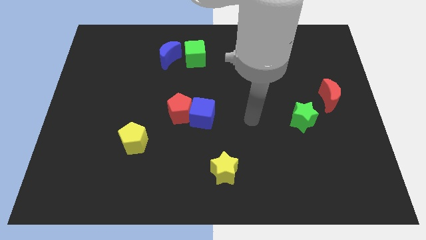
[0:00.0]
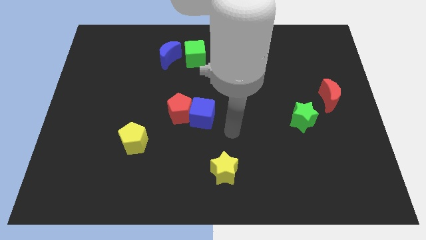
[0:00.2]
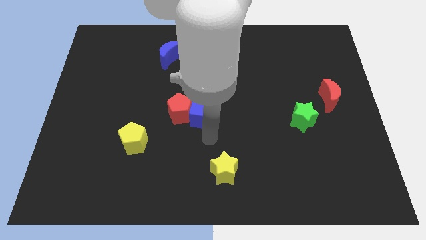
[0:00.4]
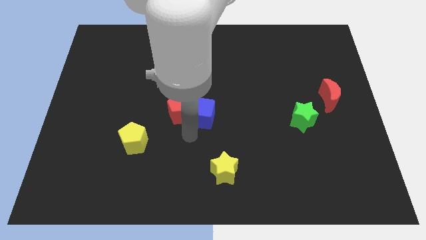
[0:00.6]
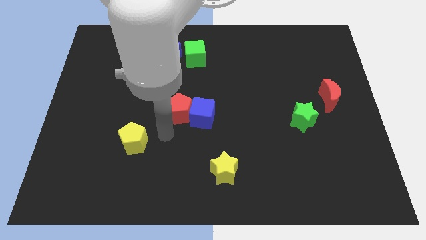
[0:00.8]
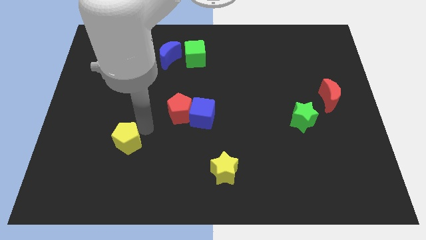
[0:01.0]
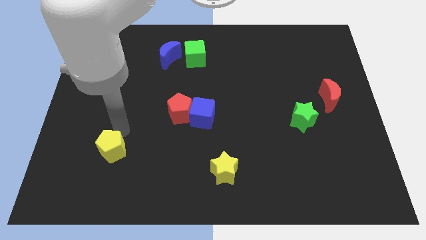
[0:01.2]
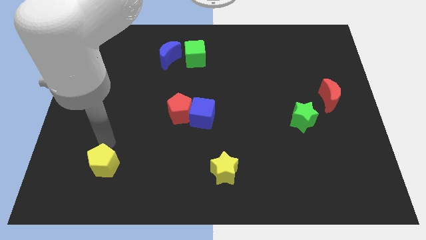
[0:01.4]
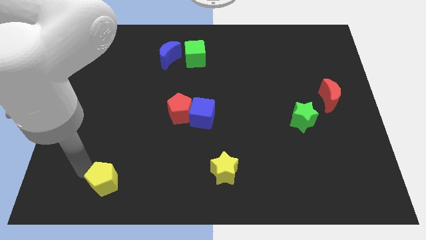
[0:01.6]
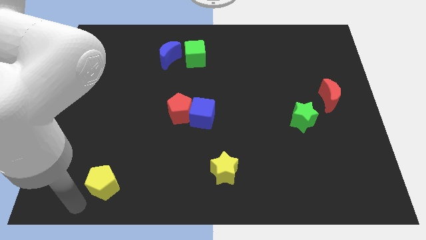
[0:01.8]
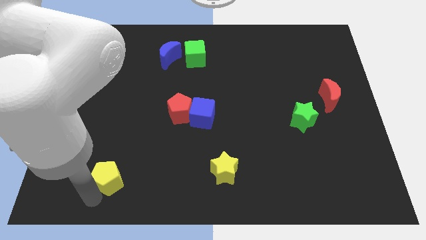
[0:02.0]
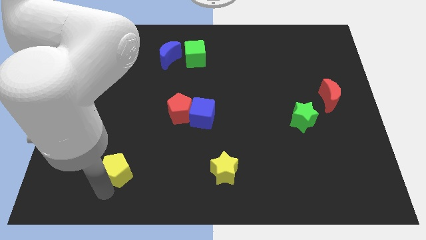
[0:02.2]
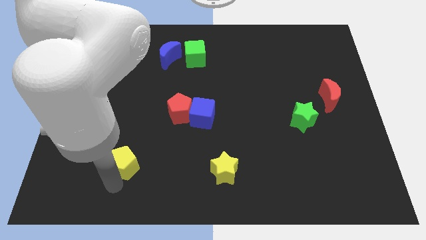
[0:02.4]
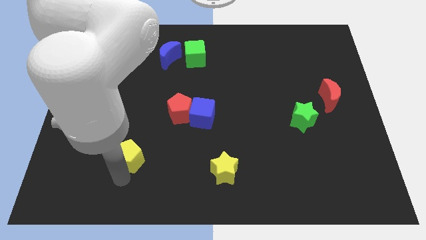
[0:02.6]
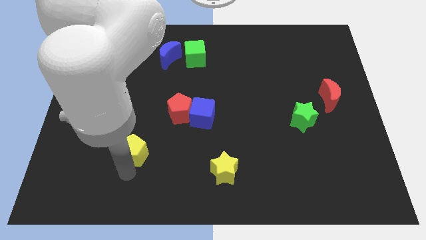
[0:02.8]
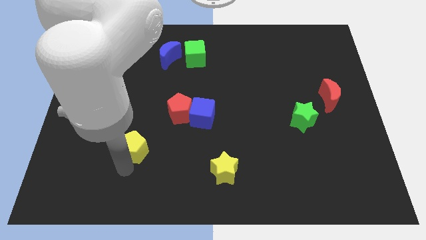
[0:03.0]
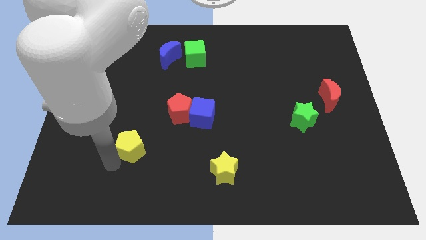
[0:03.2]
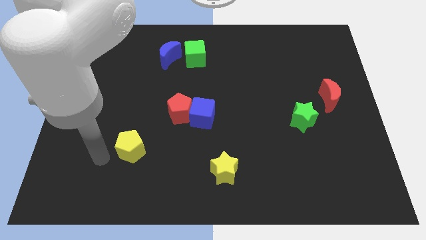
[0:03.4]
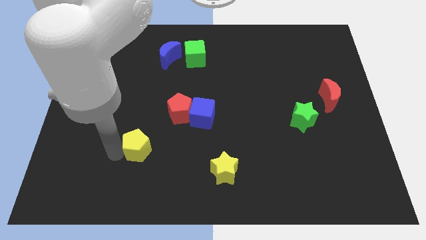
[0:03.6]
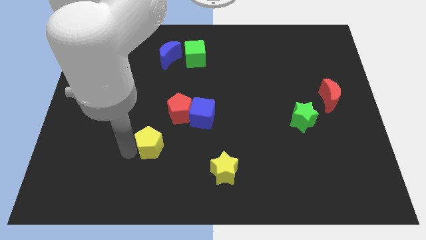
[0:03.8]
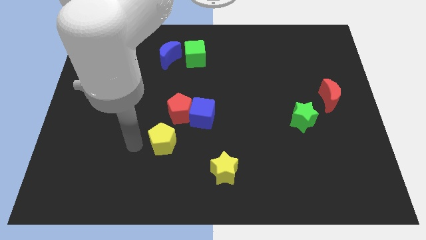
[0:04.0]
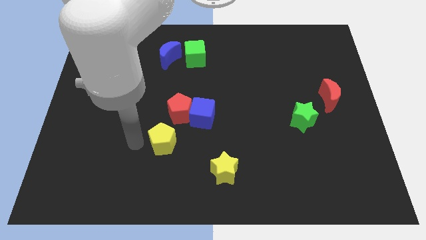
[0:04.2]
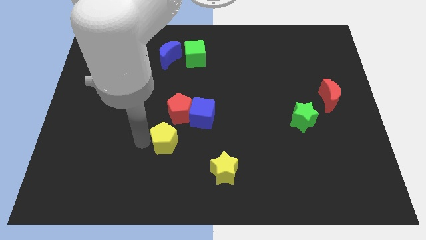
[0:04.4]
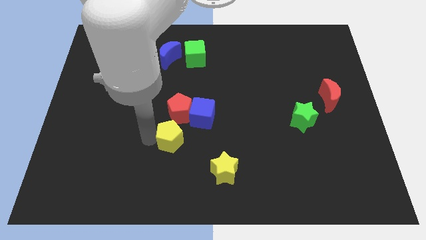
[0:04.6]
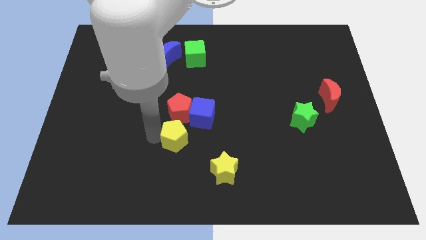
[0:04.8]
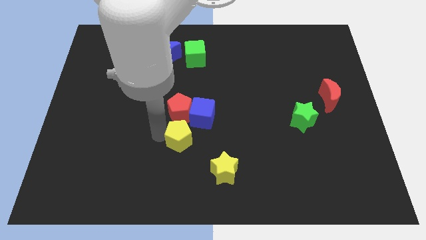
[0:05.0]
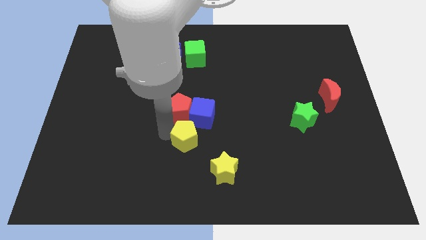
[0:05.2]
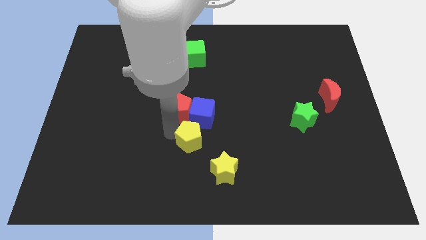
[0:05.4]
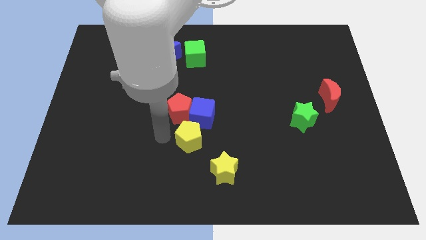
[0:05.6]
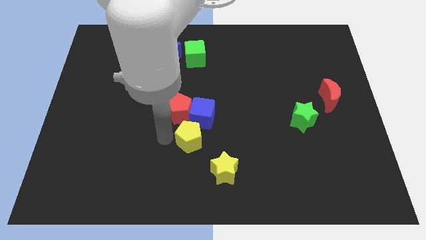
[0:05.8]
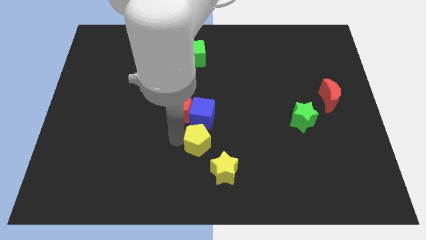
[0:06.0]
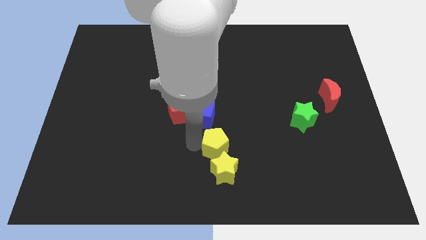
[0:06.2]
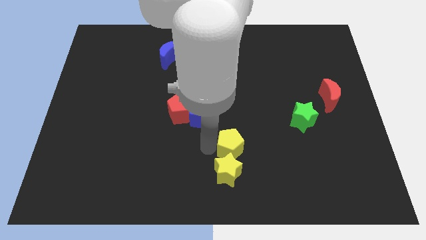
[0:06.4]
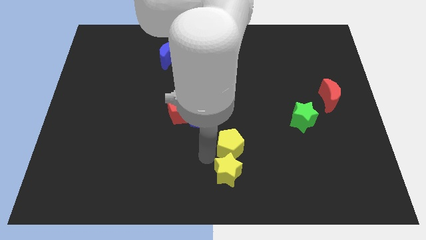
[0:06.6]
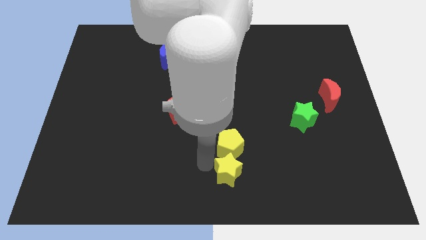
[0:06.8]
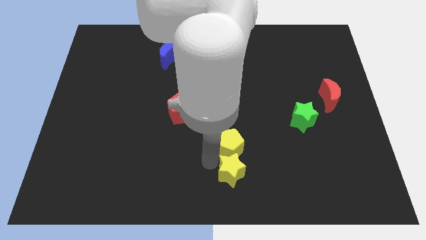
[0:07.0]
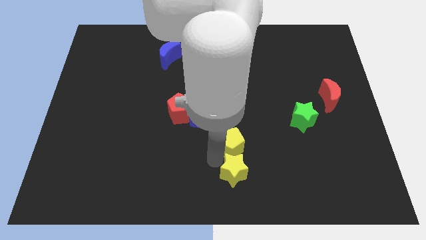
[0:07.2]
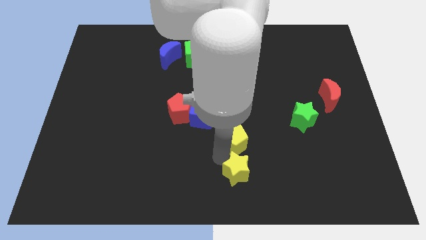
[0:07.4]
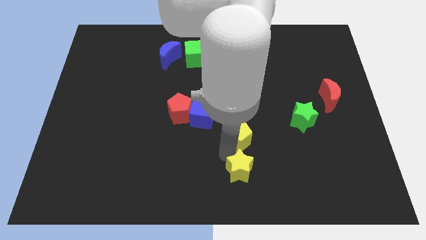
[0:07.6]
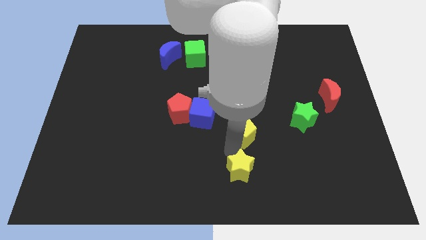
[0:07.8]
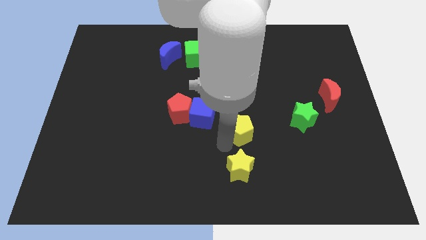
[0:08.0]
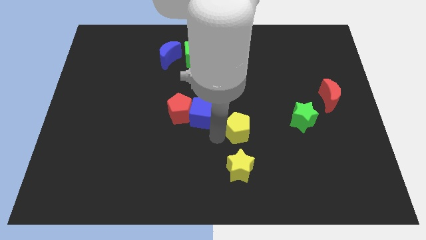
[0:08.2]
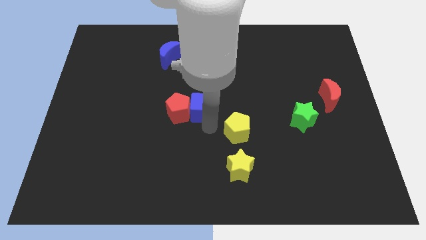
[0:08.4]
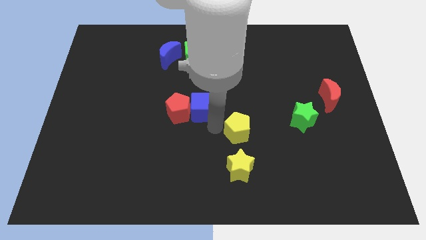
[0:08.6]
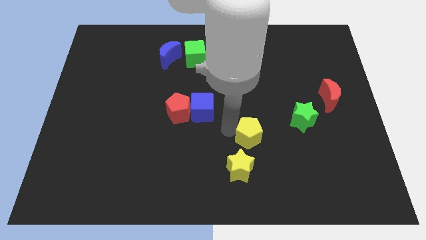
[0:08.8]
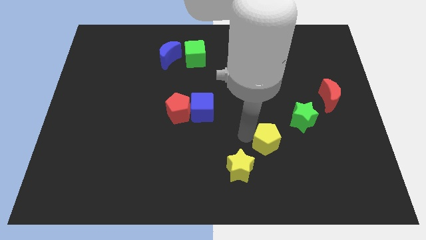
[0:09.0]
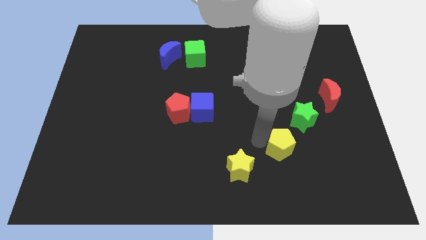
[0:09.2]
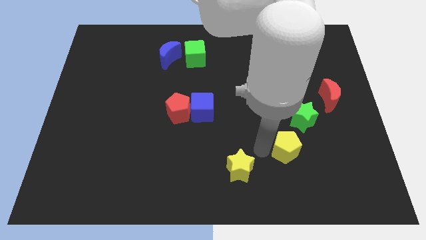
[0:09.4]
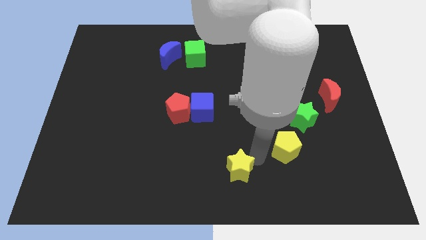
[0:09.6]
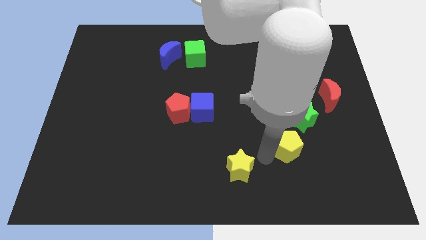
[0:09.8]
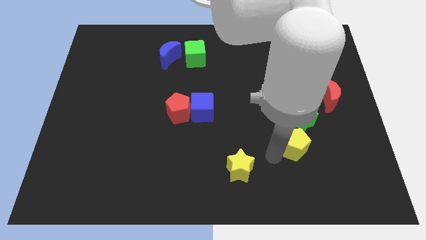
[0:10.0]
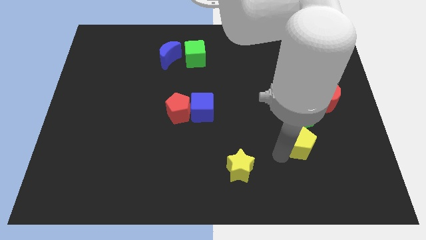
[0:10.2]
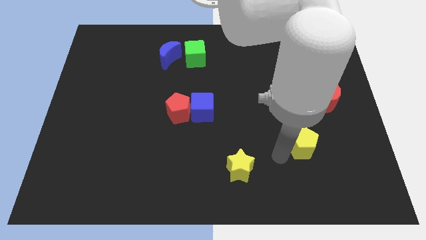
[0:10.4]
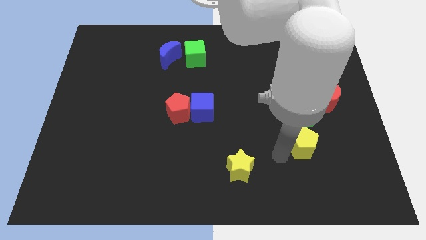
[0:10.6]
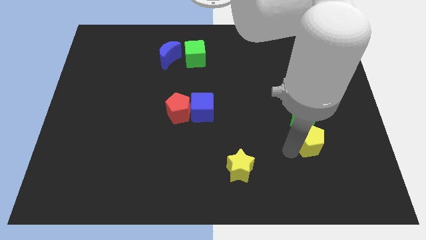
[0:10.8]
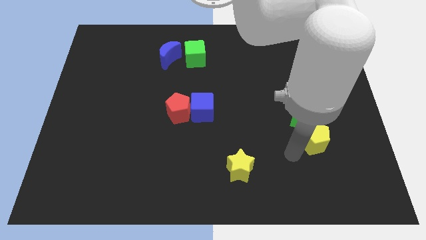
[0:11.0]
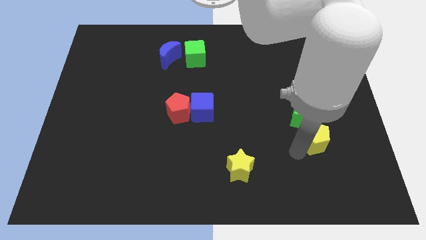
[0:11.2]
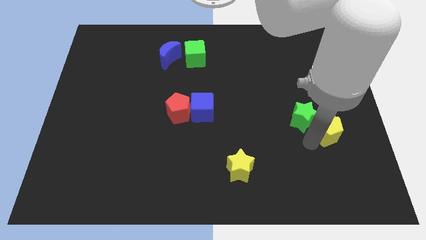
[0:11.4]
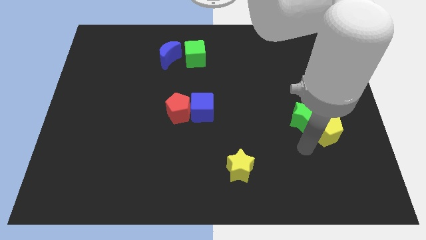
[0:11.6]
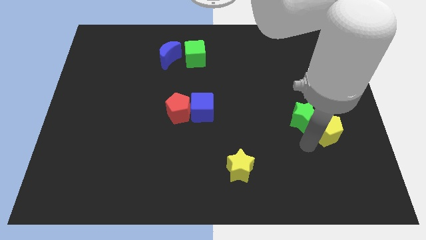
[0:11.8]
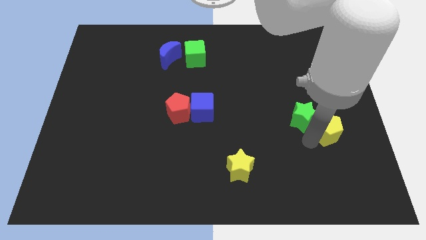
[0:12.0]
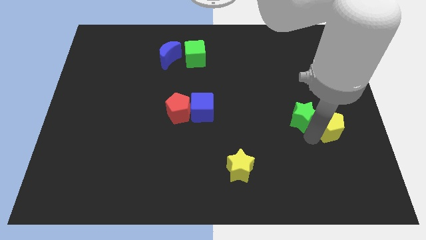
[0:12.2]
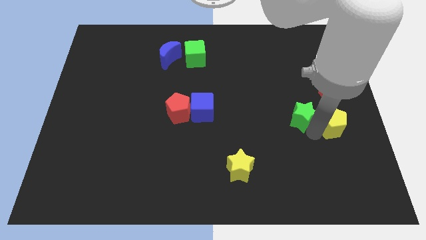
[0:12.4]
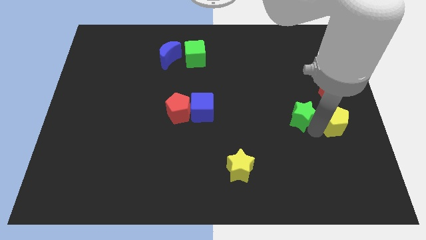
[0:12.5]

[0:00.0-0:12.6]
move the yellow pentagon to the center right
